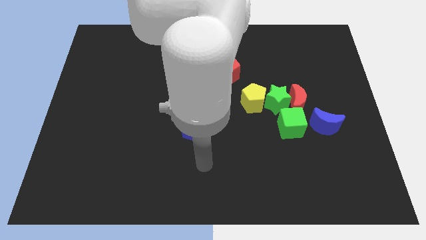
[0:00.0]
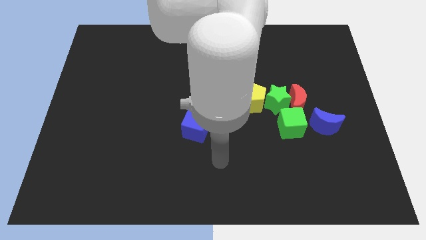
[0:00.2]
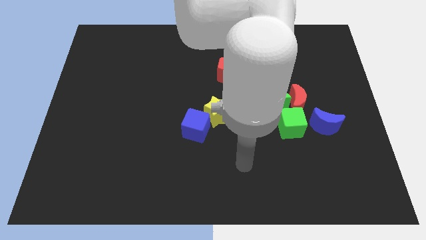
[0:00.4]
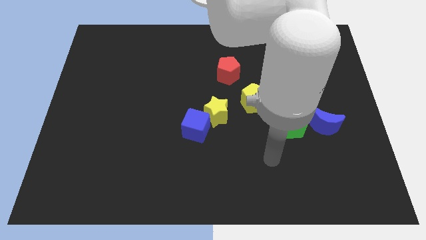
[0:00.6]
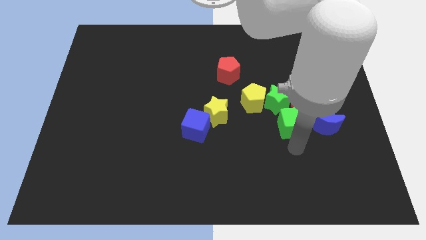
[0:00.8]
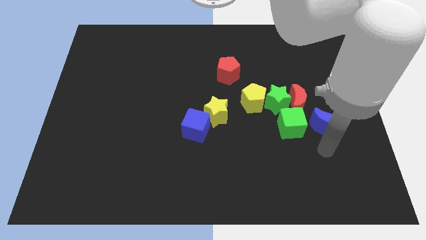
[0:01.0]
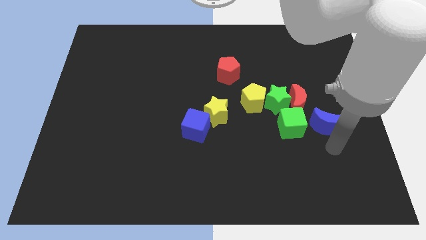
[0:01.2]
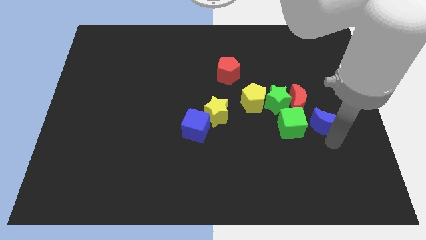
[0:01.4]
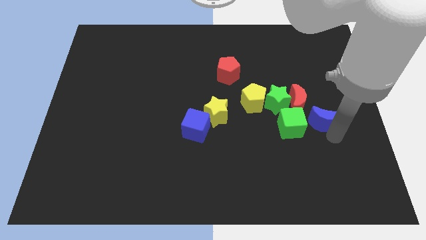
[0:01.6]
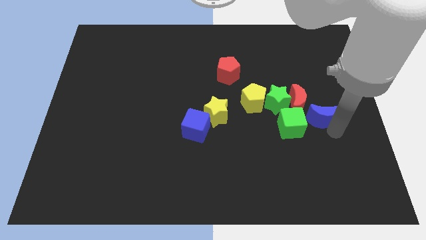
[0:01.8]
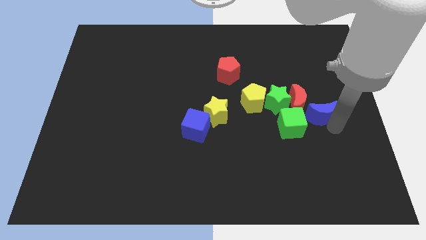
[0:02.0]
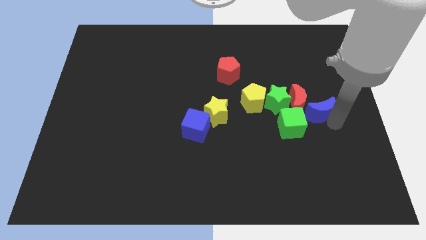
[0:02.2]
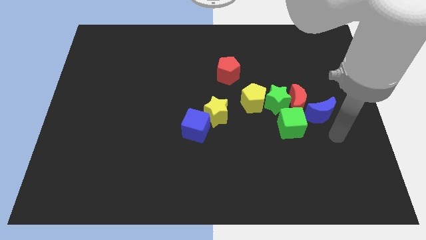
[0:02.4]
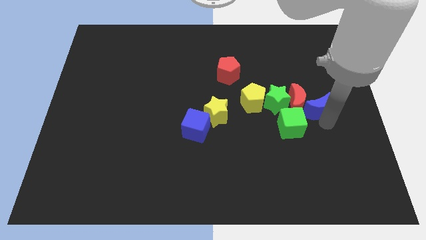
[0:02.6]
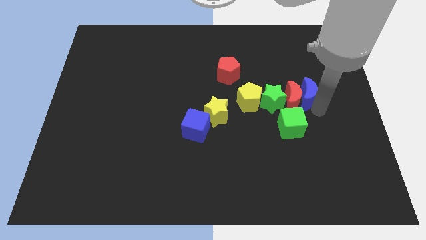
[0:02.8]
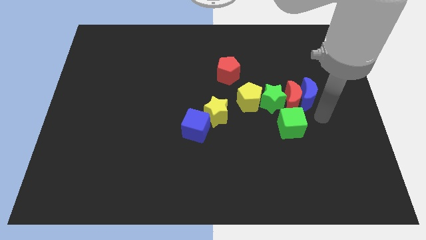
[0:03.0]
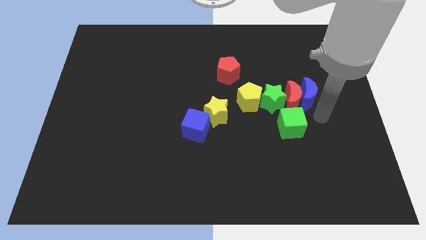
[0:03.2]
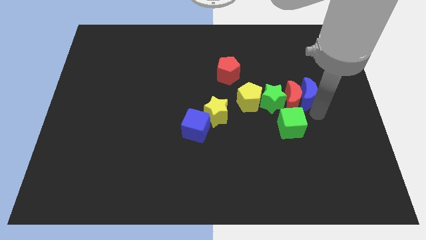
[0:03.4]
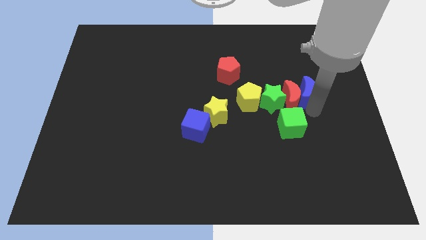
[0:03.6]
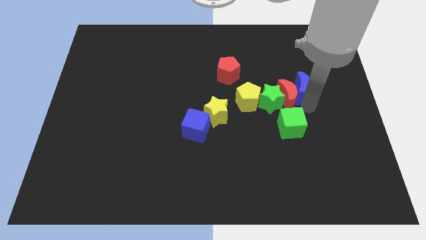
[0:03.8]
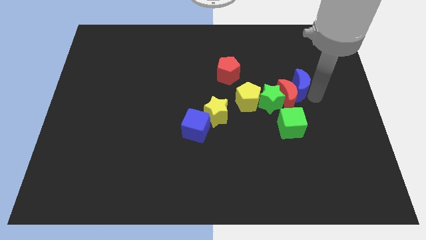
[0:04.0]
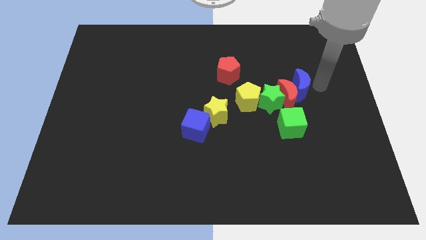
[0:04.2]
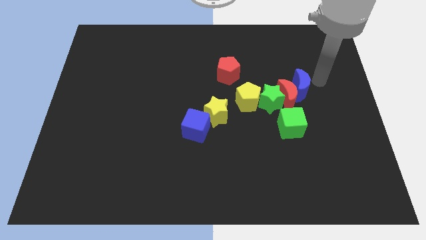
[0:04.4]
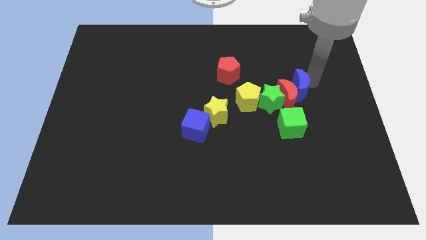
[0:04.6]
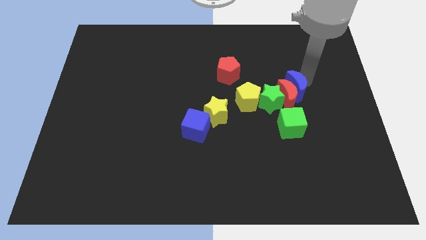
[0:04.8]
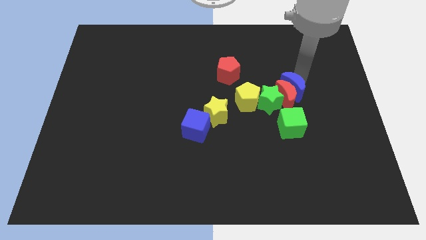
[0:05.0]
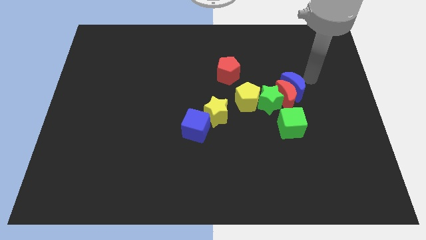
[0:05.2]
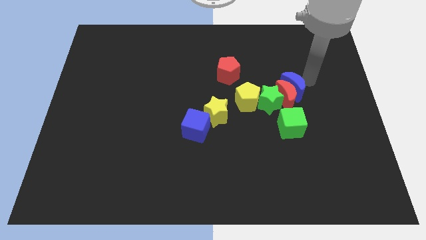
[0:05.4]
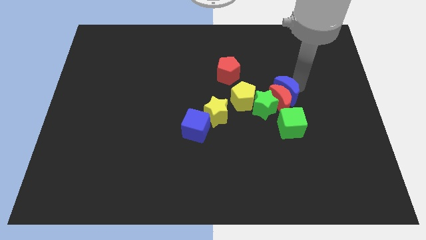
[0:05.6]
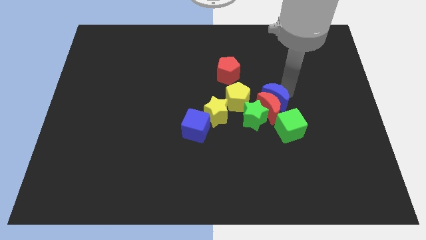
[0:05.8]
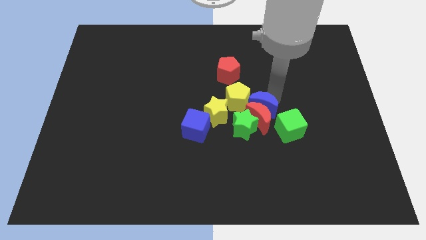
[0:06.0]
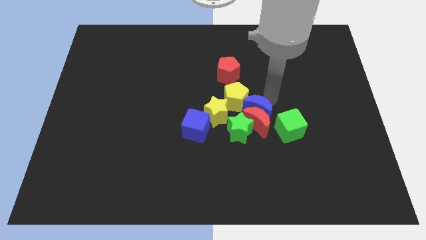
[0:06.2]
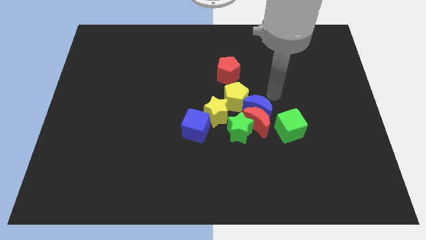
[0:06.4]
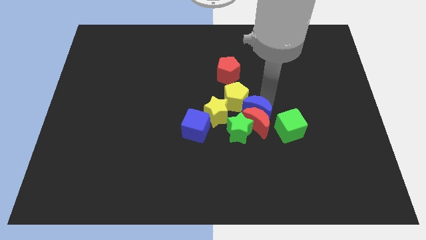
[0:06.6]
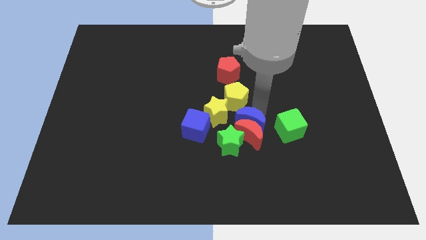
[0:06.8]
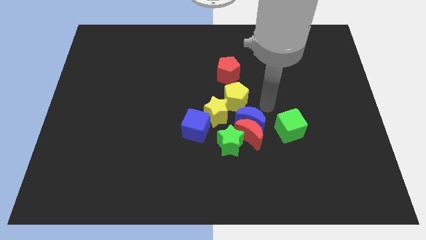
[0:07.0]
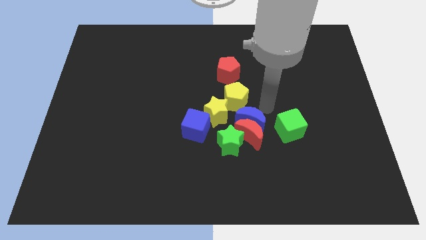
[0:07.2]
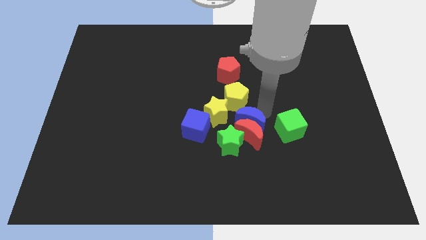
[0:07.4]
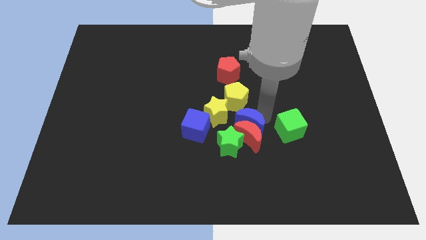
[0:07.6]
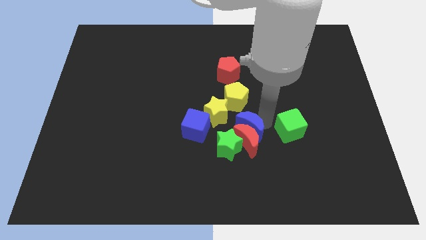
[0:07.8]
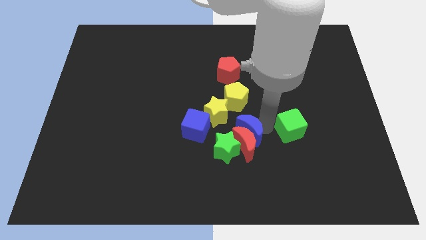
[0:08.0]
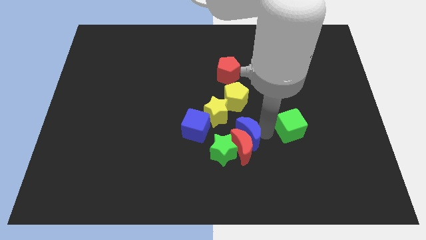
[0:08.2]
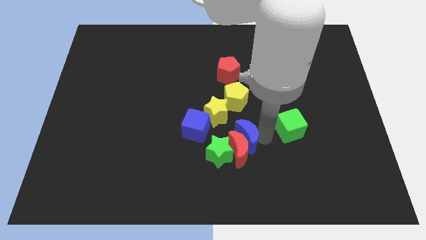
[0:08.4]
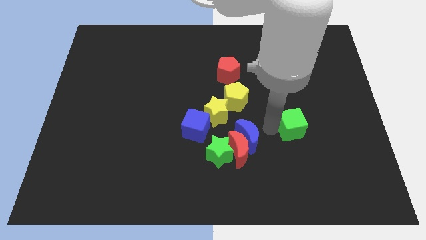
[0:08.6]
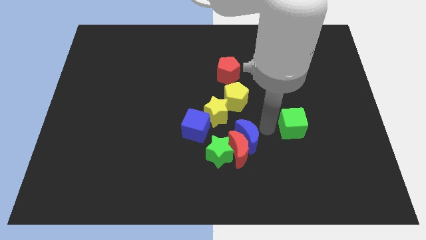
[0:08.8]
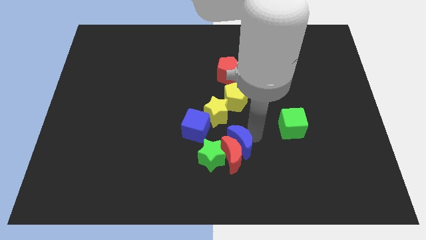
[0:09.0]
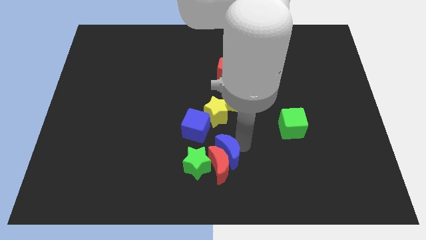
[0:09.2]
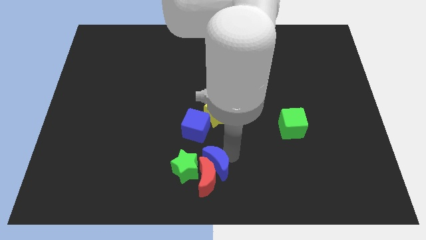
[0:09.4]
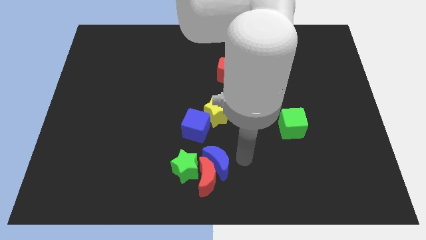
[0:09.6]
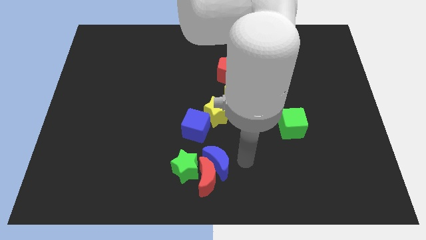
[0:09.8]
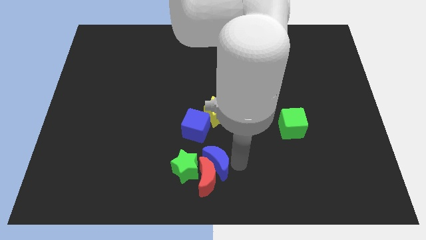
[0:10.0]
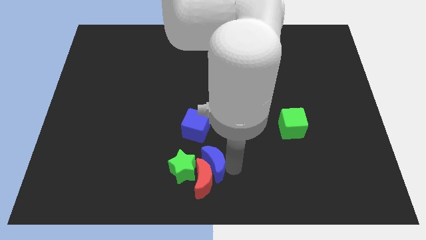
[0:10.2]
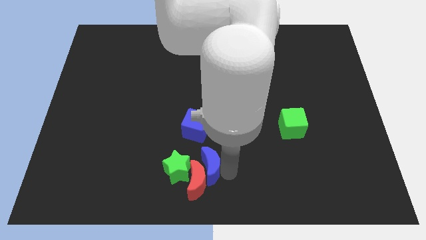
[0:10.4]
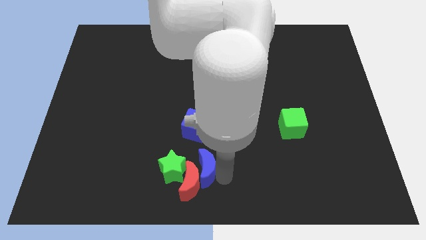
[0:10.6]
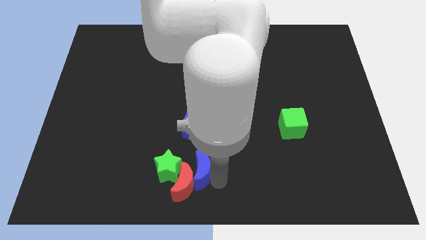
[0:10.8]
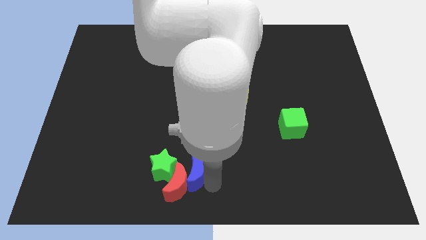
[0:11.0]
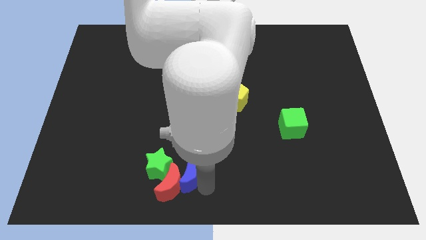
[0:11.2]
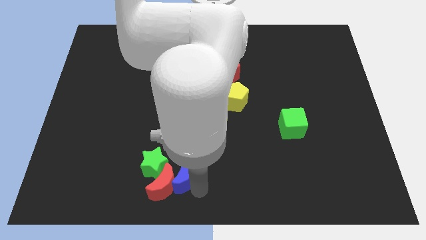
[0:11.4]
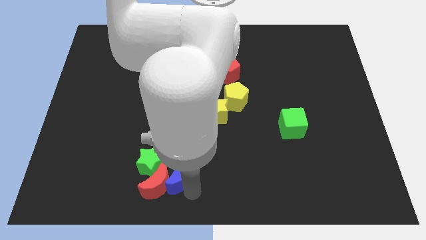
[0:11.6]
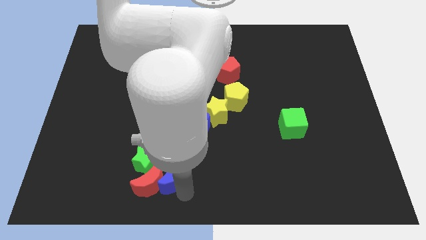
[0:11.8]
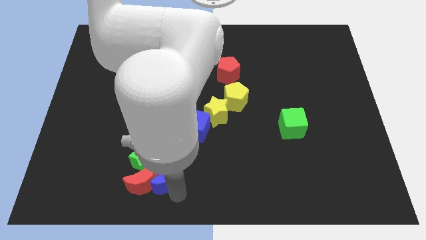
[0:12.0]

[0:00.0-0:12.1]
push the blue moon close to the green star

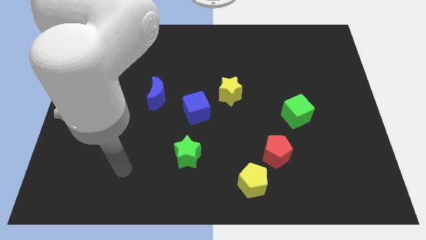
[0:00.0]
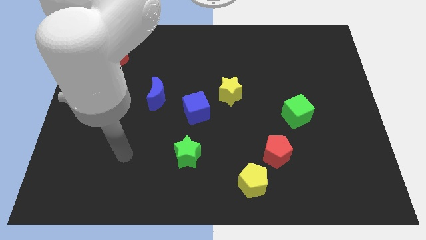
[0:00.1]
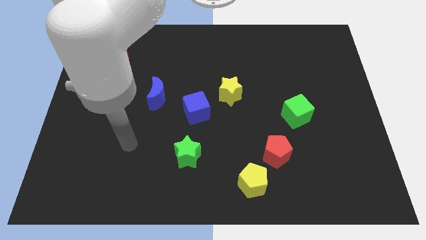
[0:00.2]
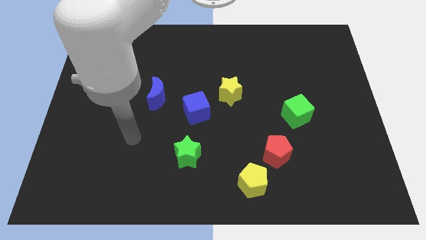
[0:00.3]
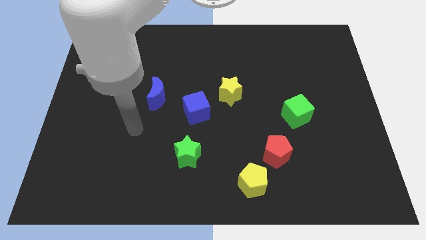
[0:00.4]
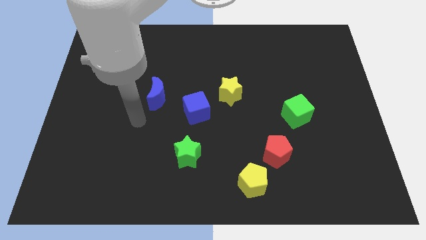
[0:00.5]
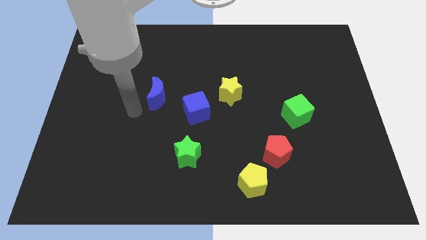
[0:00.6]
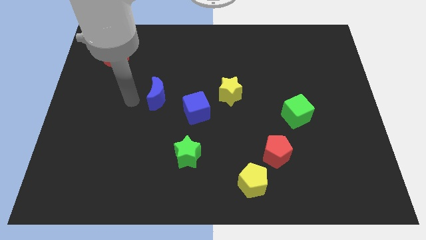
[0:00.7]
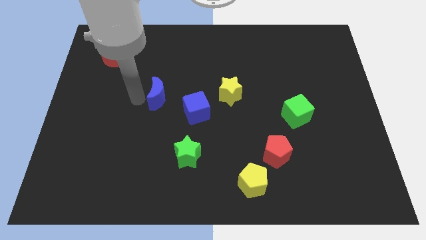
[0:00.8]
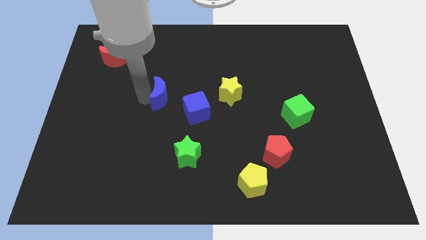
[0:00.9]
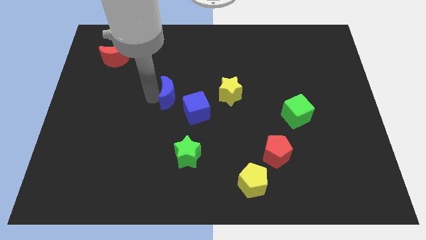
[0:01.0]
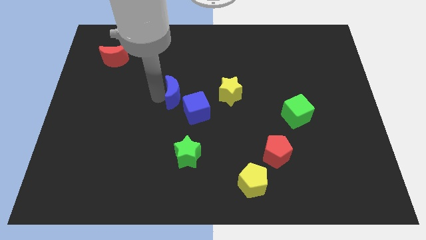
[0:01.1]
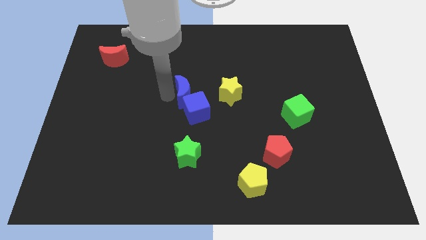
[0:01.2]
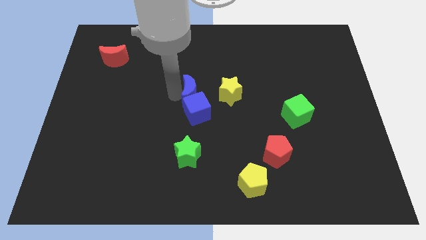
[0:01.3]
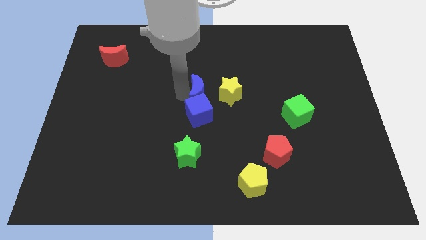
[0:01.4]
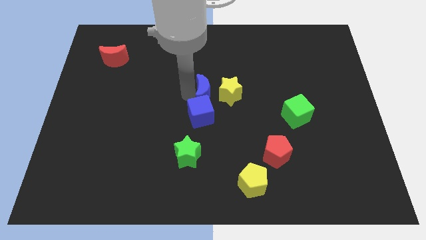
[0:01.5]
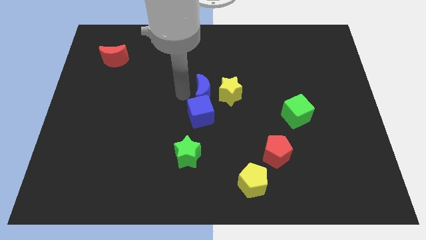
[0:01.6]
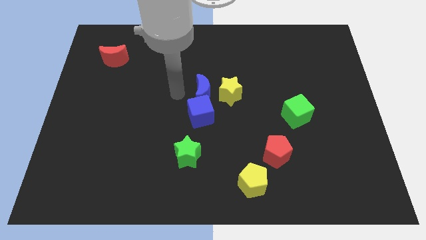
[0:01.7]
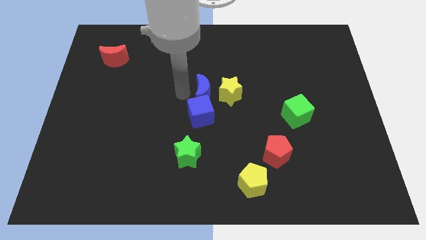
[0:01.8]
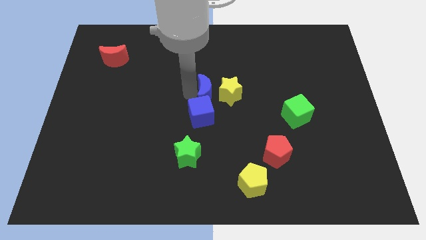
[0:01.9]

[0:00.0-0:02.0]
put the blue moon towards the yellow star
